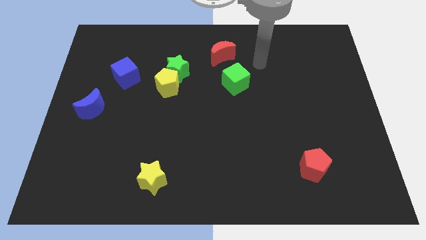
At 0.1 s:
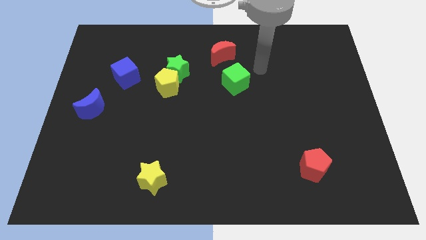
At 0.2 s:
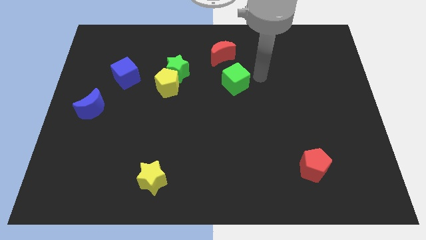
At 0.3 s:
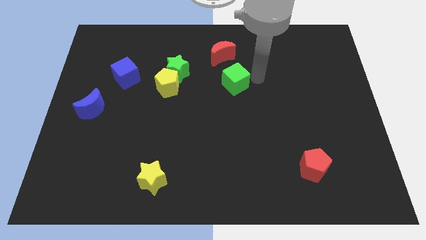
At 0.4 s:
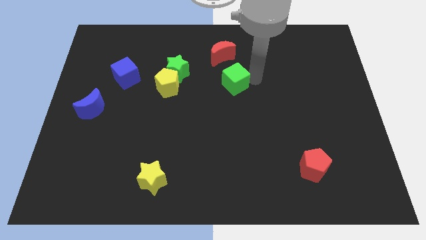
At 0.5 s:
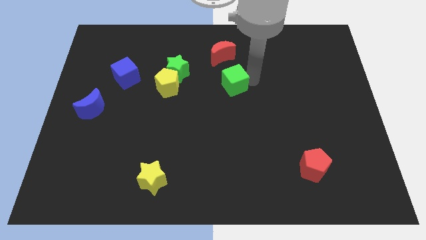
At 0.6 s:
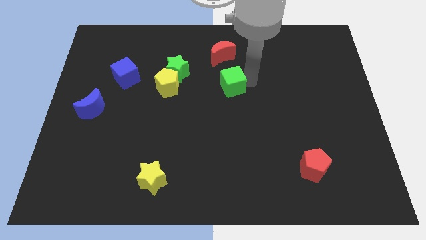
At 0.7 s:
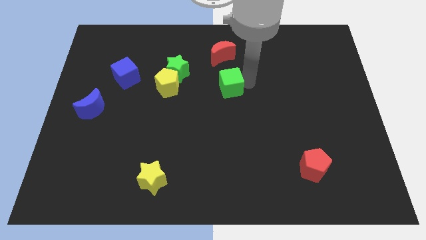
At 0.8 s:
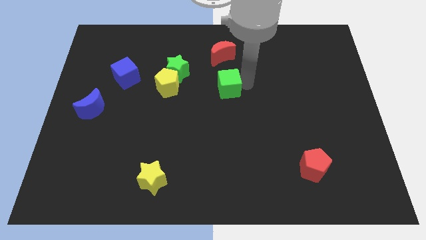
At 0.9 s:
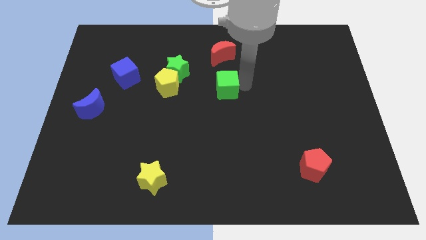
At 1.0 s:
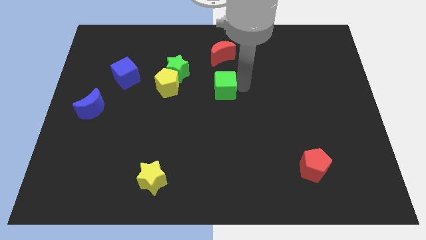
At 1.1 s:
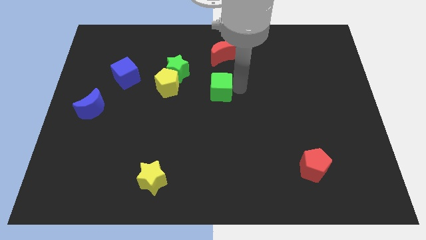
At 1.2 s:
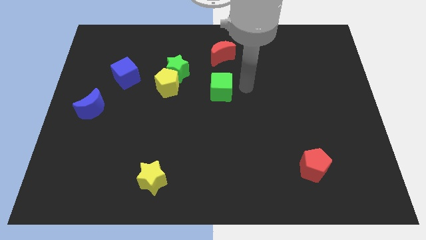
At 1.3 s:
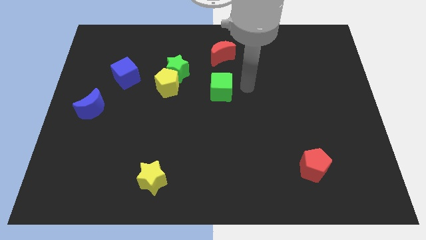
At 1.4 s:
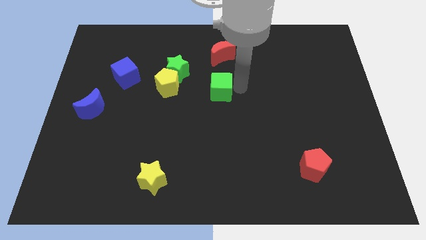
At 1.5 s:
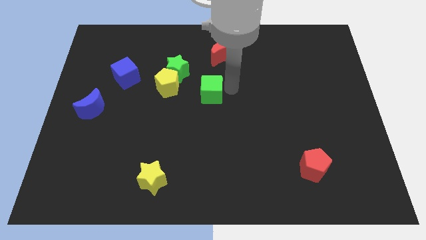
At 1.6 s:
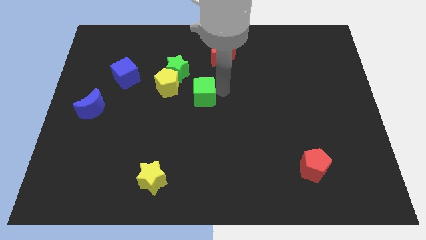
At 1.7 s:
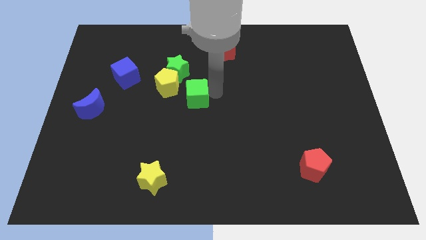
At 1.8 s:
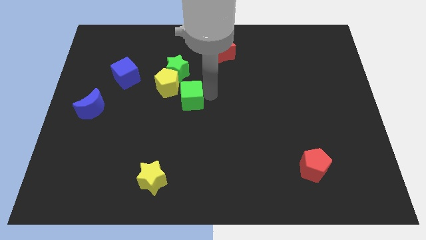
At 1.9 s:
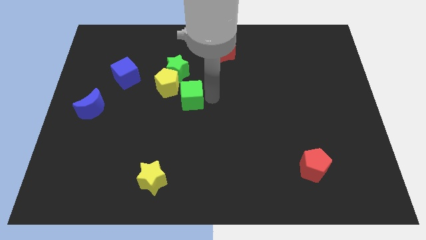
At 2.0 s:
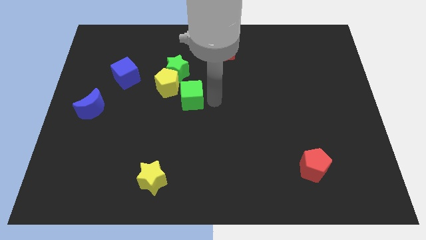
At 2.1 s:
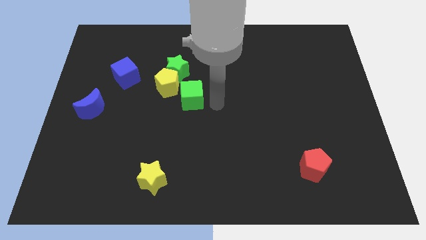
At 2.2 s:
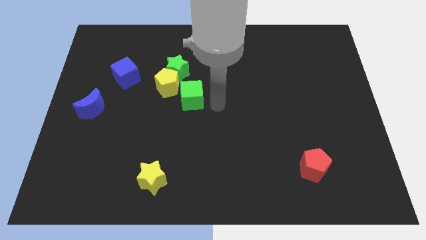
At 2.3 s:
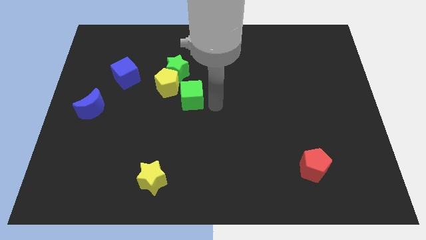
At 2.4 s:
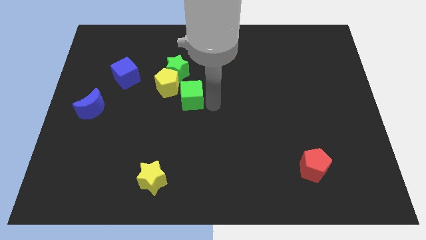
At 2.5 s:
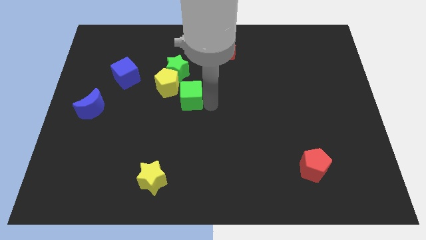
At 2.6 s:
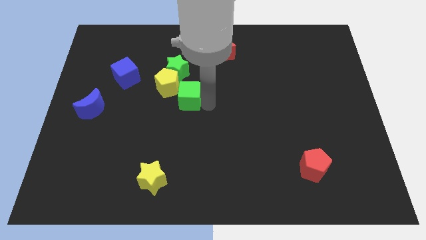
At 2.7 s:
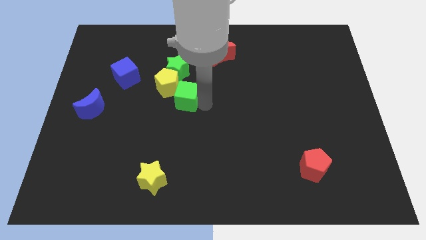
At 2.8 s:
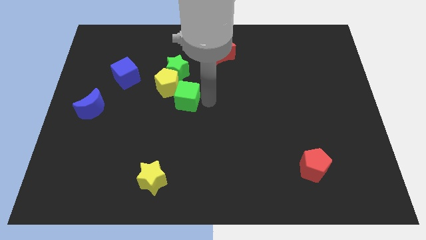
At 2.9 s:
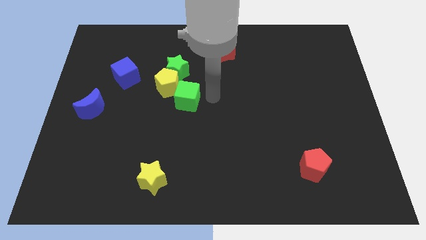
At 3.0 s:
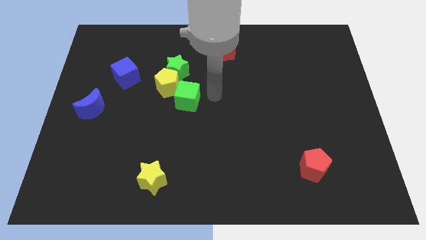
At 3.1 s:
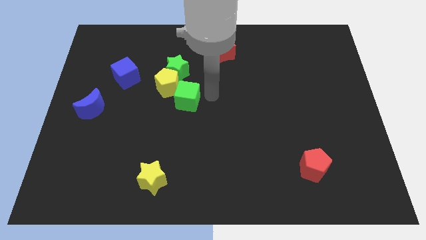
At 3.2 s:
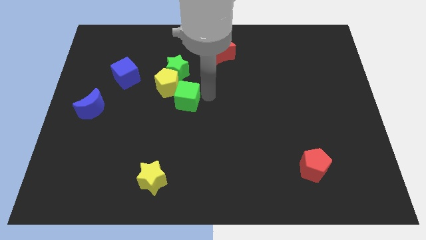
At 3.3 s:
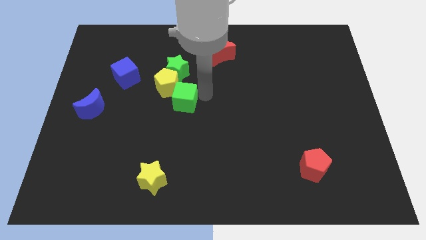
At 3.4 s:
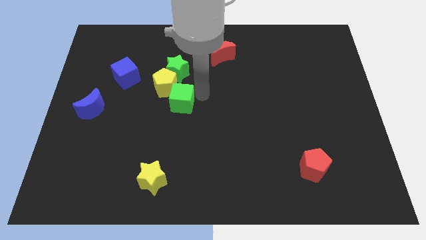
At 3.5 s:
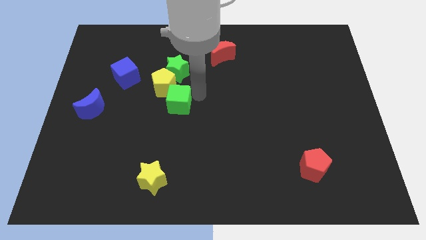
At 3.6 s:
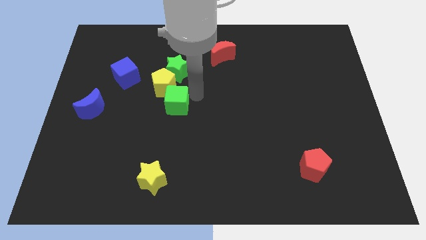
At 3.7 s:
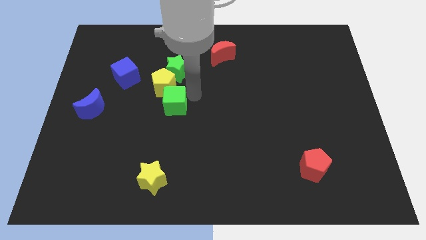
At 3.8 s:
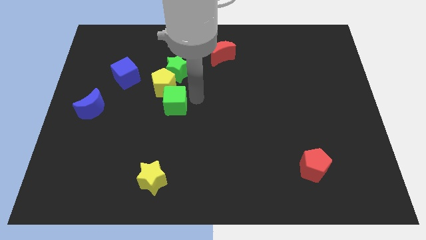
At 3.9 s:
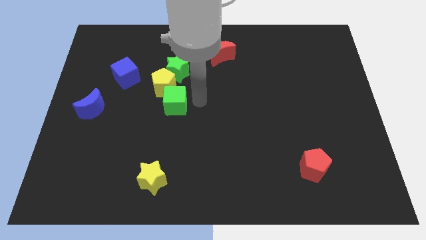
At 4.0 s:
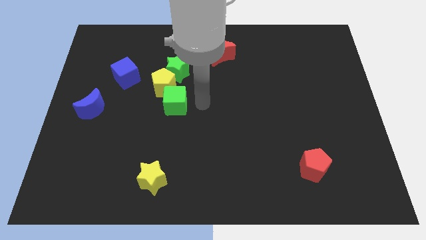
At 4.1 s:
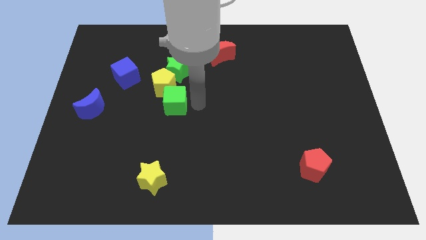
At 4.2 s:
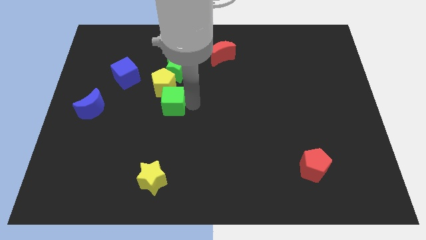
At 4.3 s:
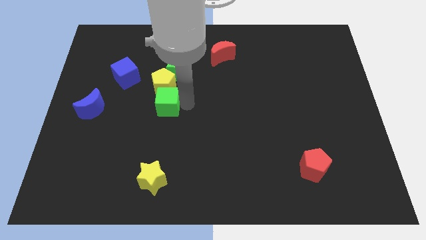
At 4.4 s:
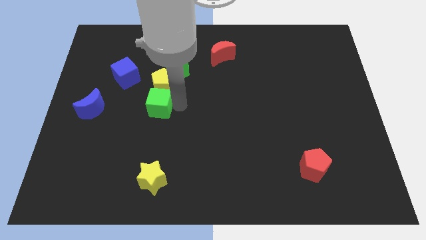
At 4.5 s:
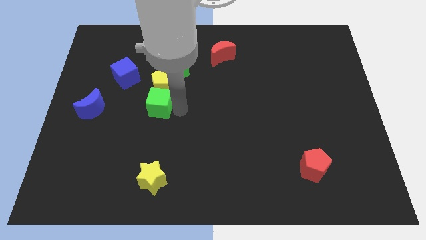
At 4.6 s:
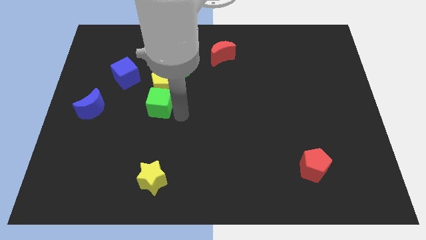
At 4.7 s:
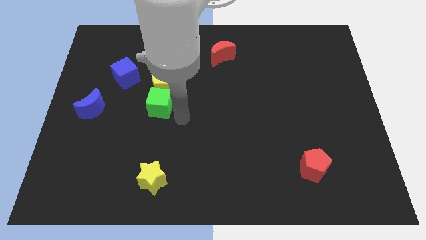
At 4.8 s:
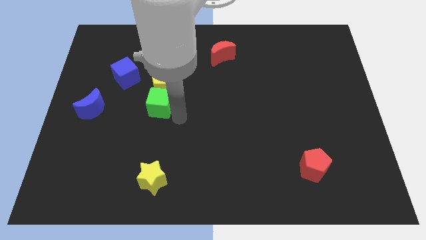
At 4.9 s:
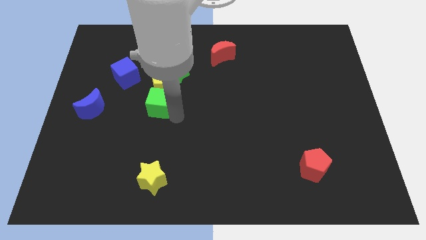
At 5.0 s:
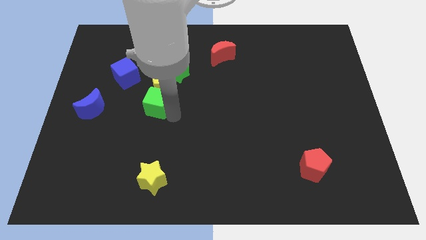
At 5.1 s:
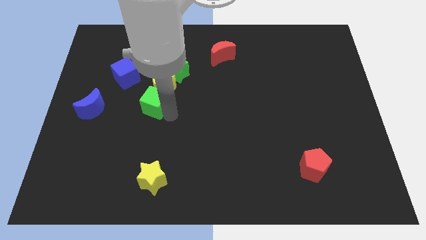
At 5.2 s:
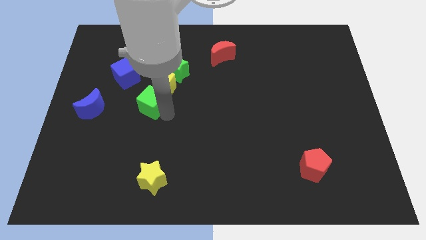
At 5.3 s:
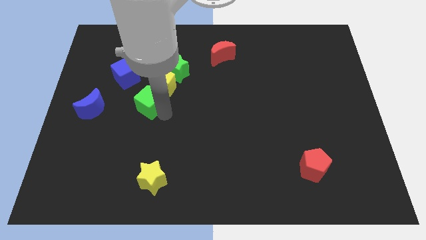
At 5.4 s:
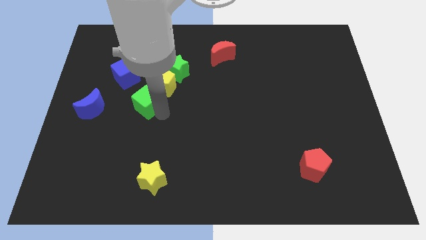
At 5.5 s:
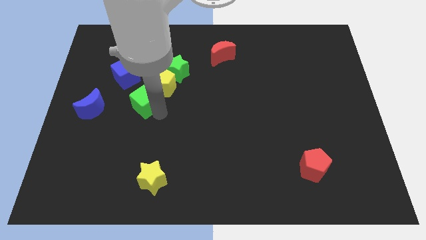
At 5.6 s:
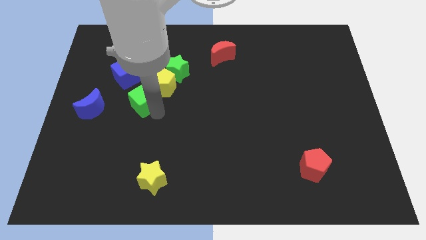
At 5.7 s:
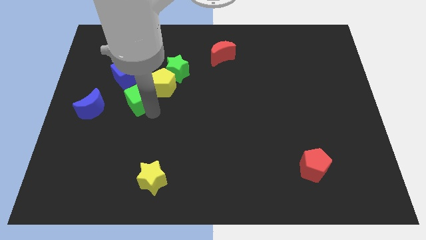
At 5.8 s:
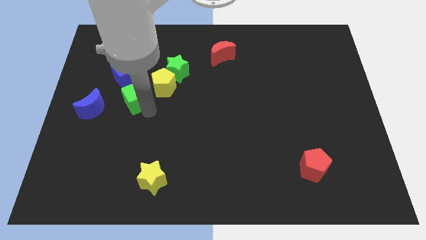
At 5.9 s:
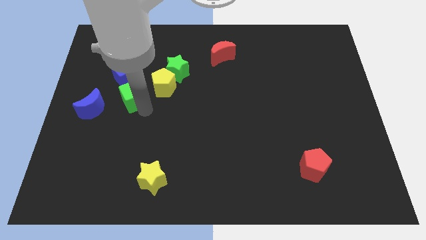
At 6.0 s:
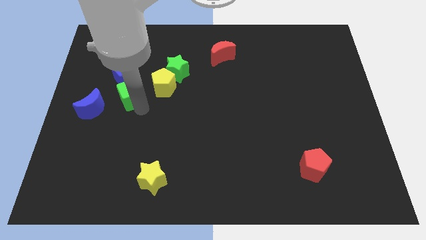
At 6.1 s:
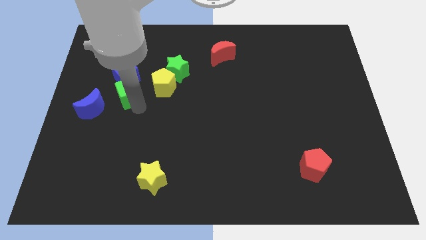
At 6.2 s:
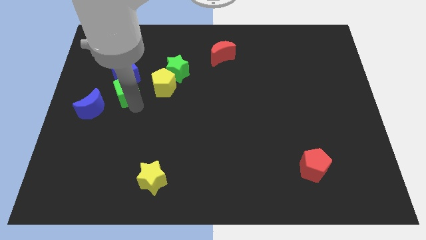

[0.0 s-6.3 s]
put the green cube close to the blue cube

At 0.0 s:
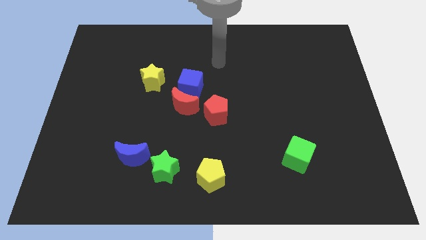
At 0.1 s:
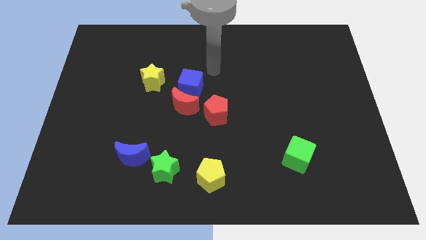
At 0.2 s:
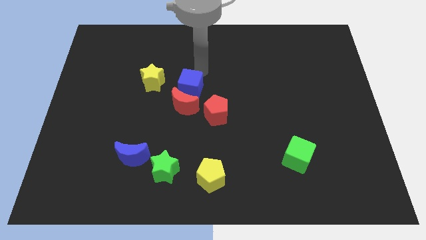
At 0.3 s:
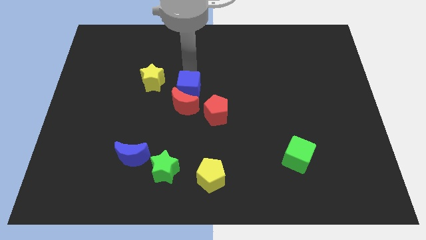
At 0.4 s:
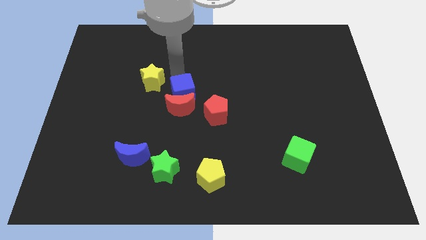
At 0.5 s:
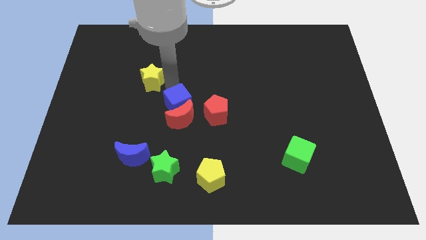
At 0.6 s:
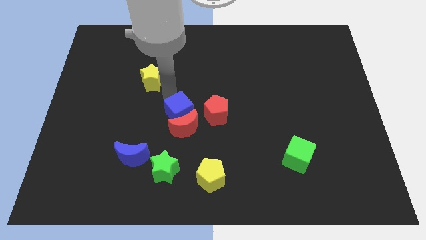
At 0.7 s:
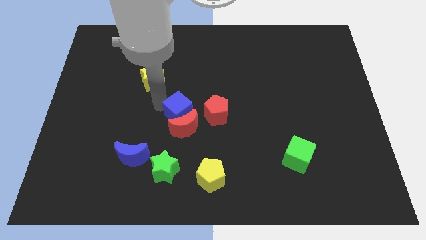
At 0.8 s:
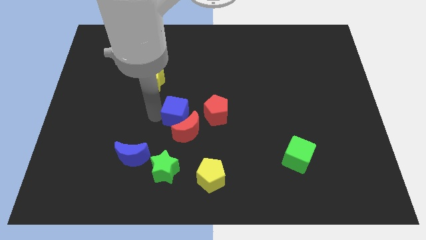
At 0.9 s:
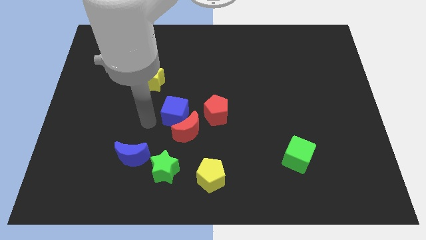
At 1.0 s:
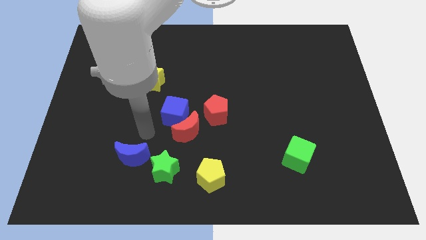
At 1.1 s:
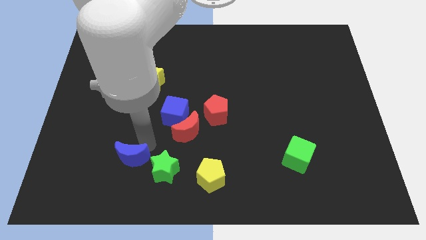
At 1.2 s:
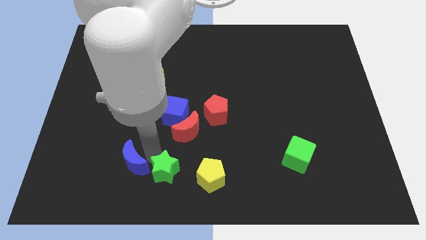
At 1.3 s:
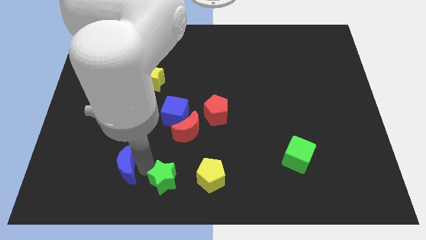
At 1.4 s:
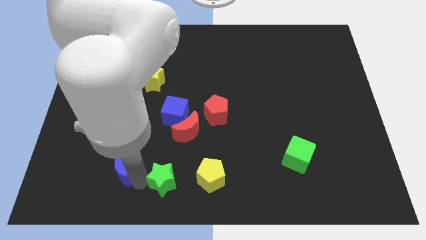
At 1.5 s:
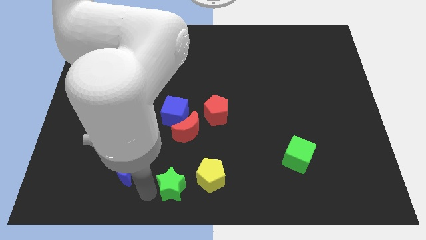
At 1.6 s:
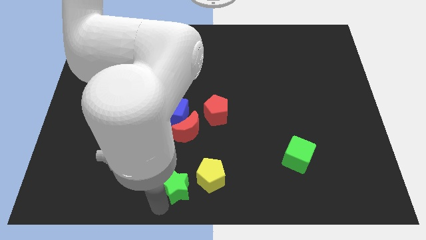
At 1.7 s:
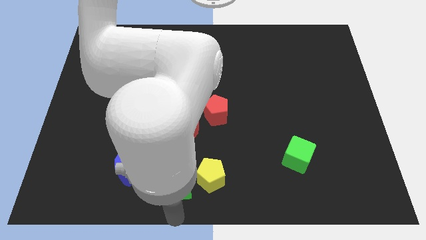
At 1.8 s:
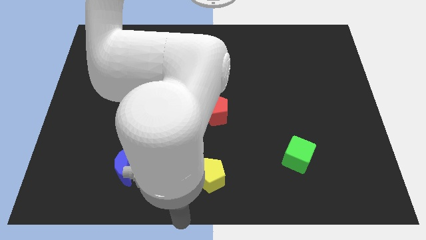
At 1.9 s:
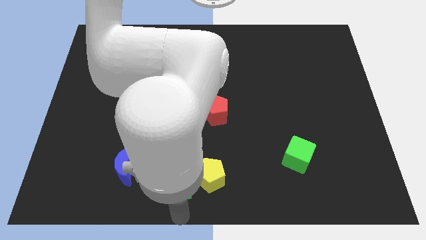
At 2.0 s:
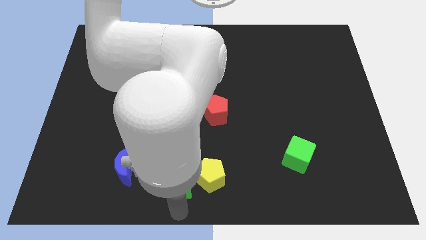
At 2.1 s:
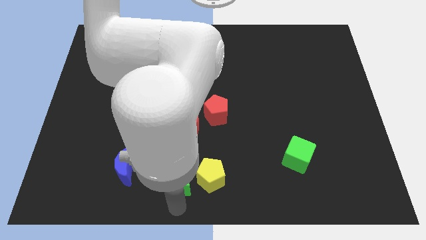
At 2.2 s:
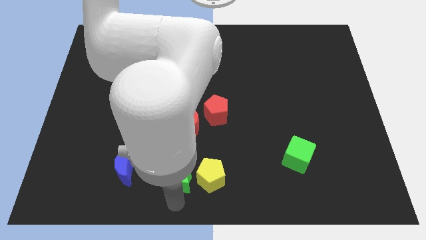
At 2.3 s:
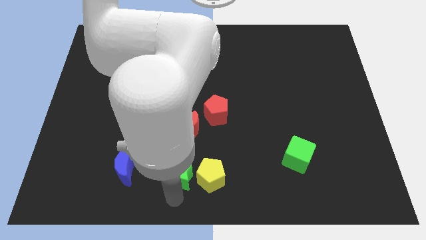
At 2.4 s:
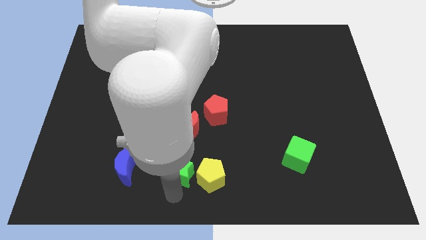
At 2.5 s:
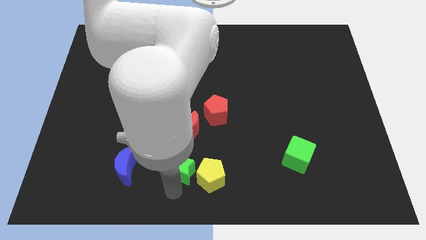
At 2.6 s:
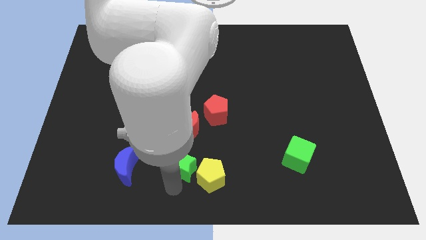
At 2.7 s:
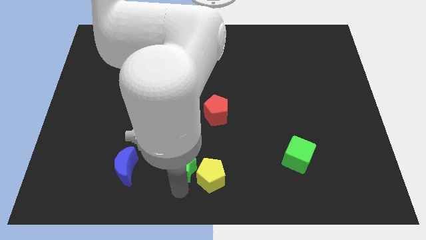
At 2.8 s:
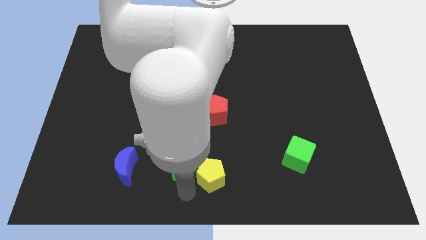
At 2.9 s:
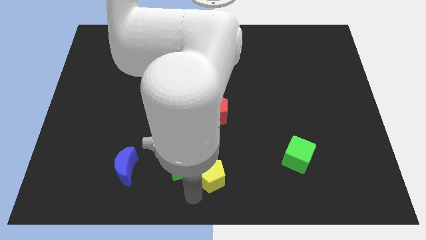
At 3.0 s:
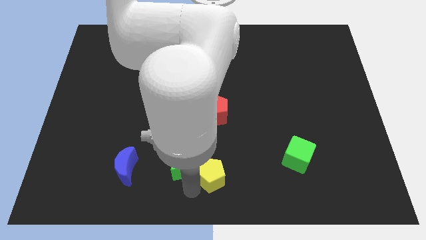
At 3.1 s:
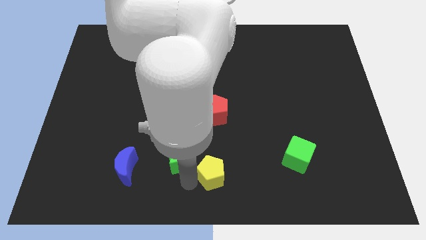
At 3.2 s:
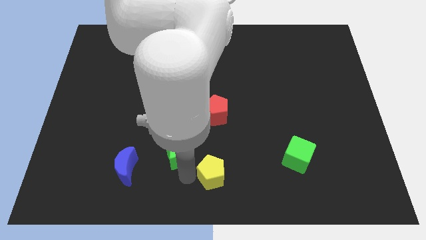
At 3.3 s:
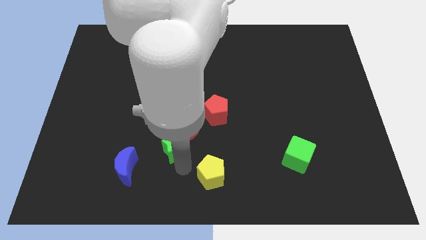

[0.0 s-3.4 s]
put the green star close to the red moon
